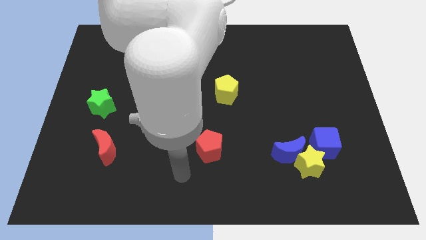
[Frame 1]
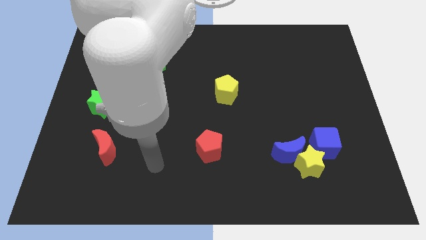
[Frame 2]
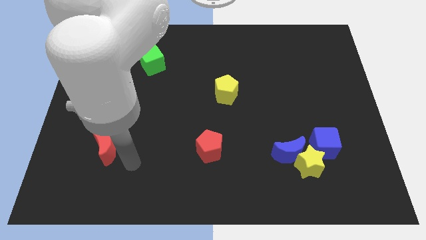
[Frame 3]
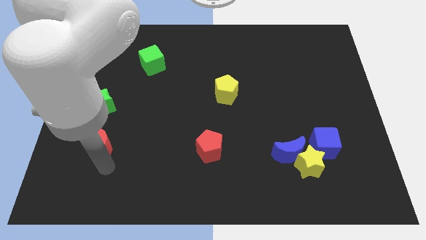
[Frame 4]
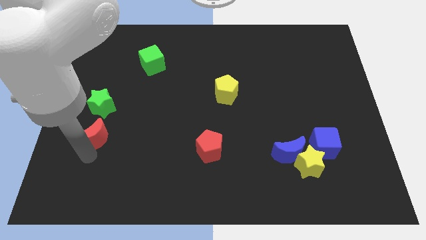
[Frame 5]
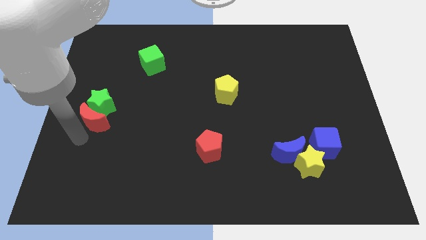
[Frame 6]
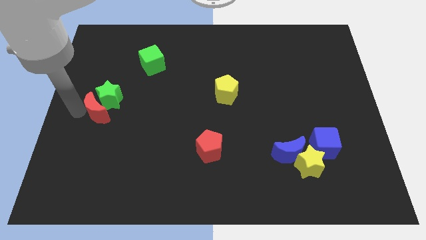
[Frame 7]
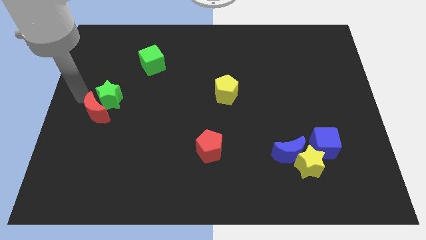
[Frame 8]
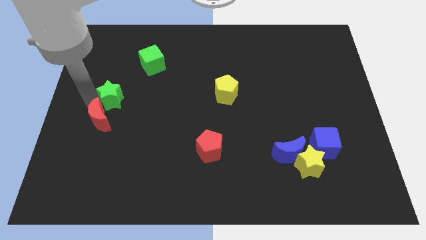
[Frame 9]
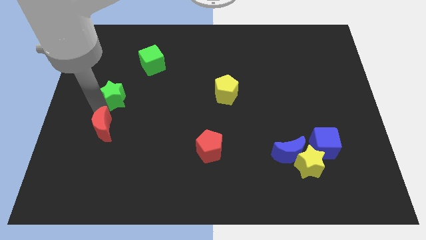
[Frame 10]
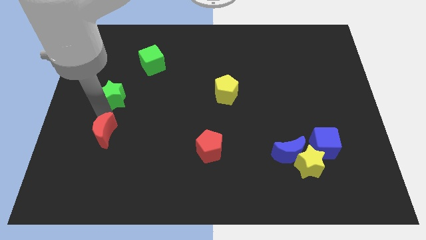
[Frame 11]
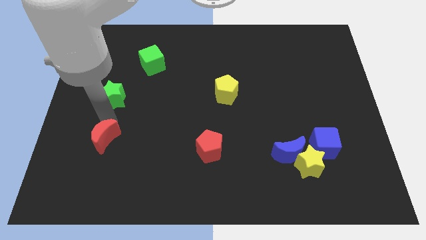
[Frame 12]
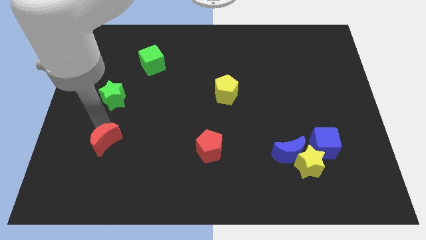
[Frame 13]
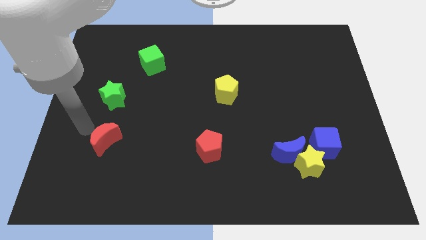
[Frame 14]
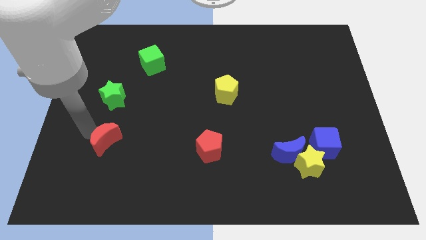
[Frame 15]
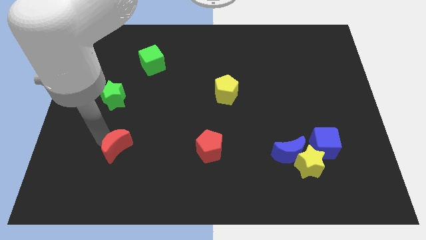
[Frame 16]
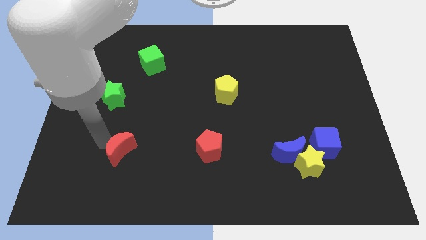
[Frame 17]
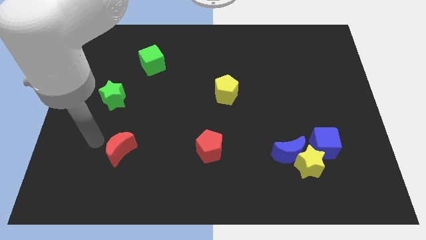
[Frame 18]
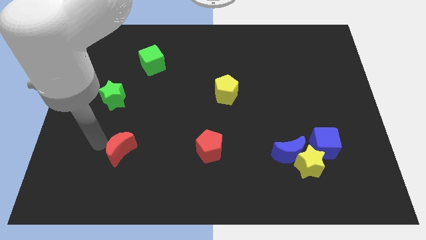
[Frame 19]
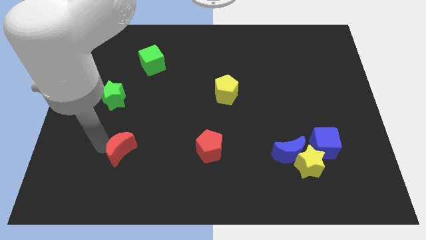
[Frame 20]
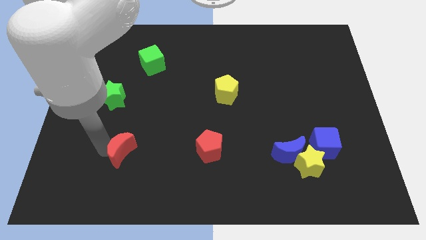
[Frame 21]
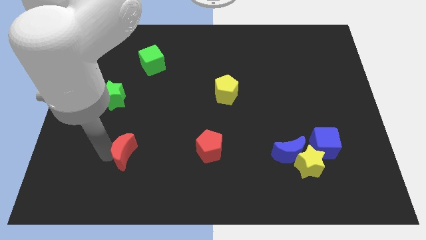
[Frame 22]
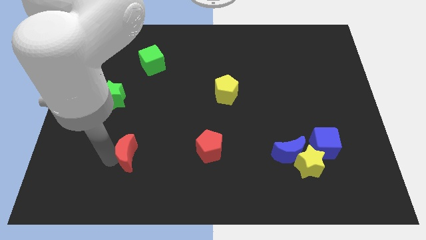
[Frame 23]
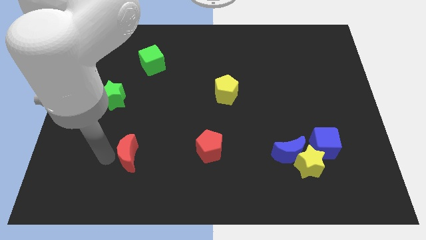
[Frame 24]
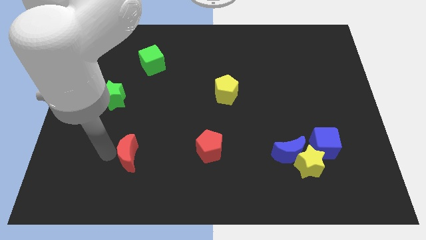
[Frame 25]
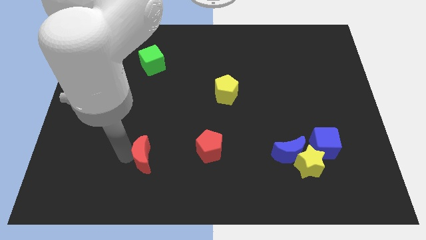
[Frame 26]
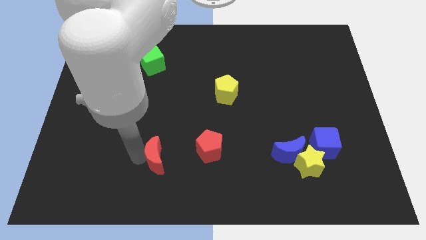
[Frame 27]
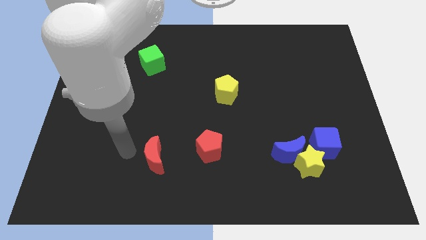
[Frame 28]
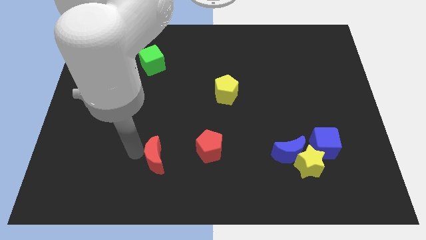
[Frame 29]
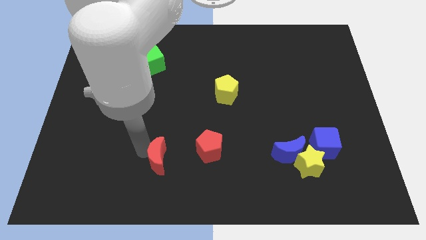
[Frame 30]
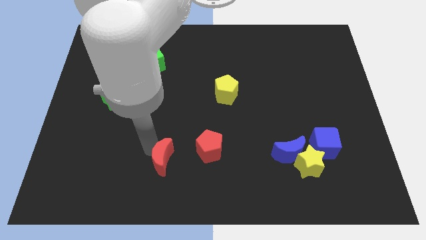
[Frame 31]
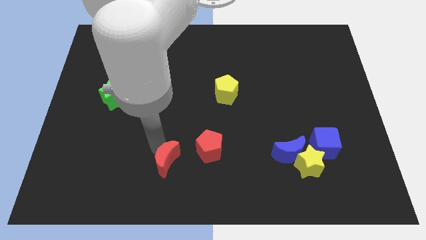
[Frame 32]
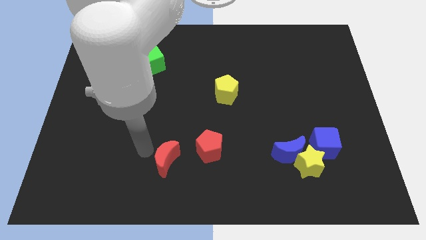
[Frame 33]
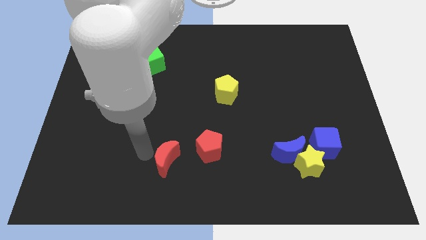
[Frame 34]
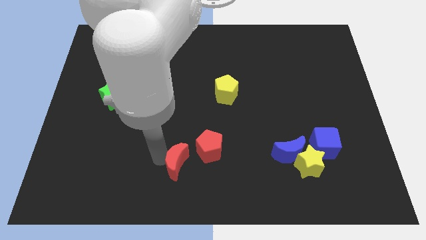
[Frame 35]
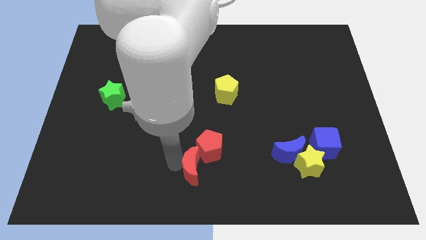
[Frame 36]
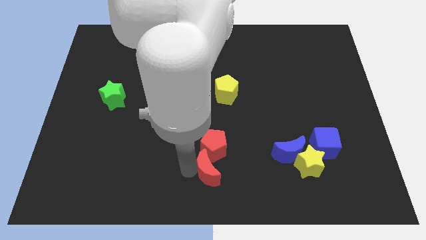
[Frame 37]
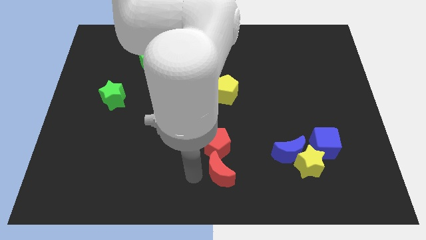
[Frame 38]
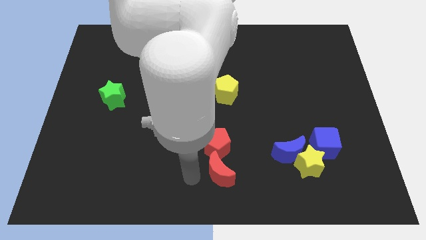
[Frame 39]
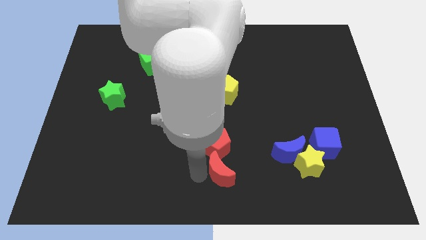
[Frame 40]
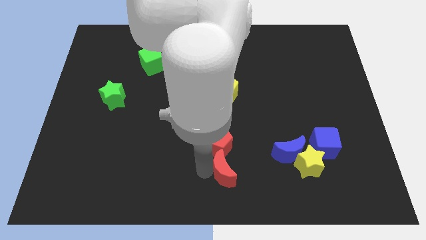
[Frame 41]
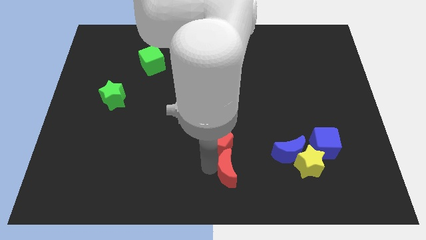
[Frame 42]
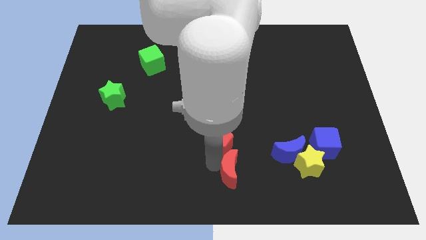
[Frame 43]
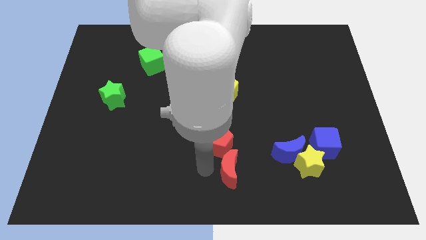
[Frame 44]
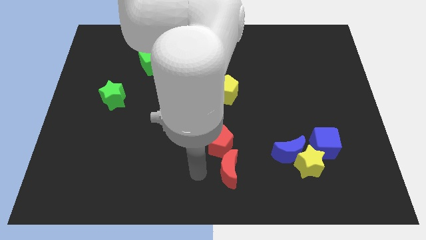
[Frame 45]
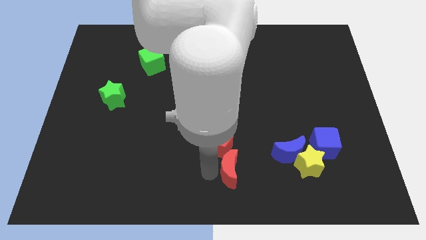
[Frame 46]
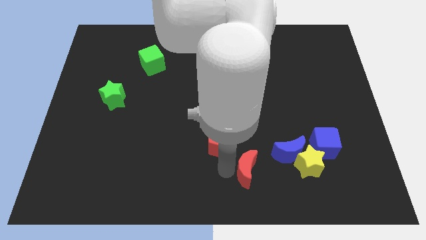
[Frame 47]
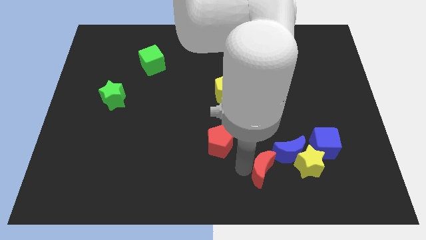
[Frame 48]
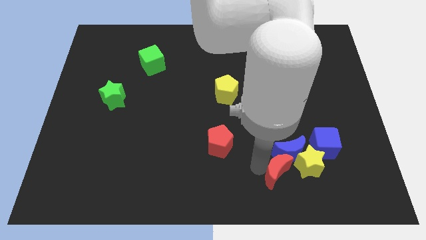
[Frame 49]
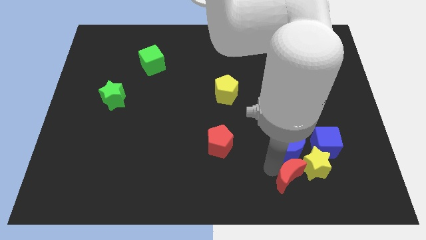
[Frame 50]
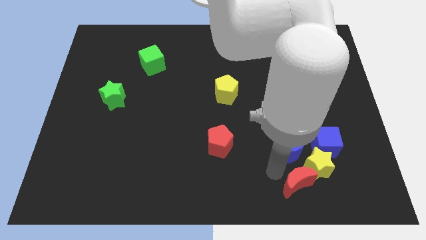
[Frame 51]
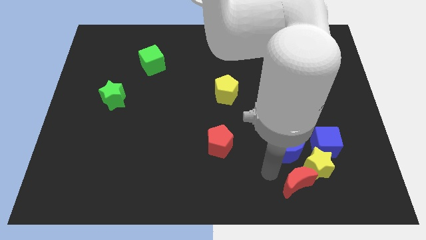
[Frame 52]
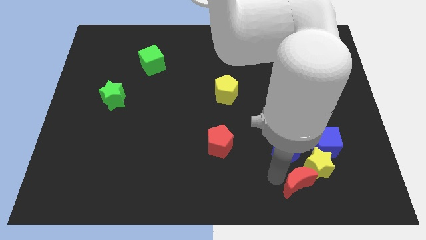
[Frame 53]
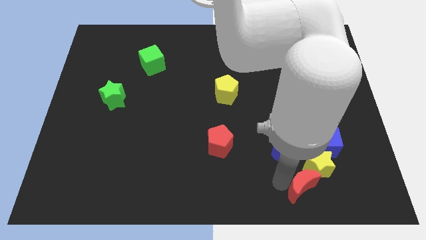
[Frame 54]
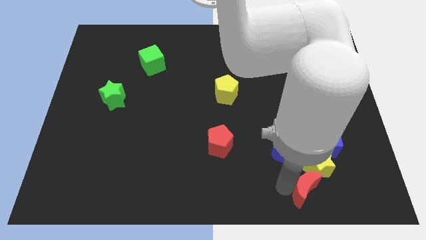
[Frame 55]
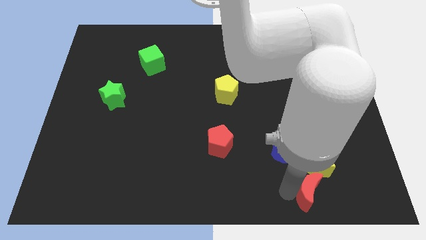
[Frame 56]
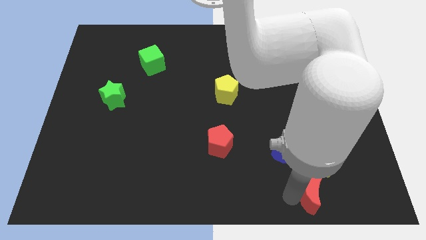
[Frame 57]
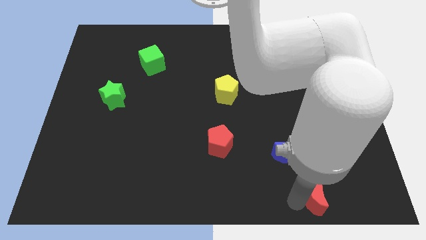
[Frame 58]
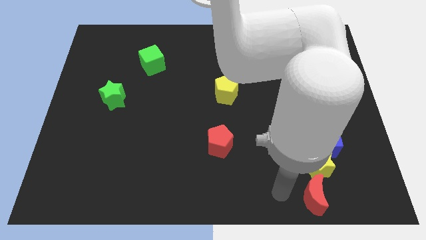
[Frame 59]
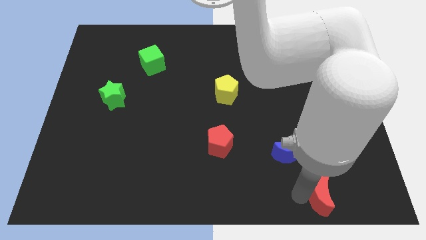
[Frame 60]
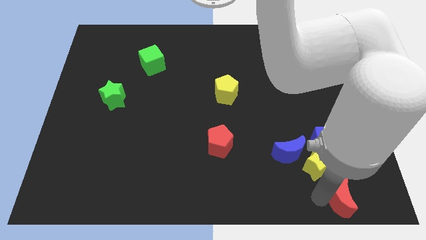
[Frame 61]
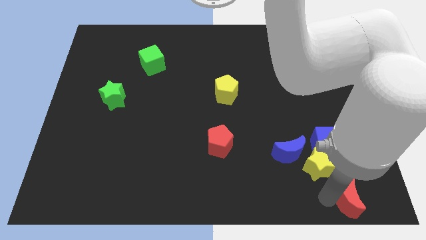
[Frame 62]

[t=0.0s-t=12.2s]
move the red moon to the bottom right

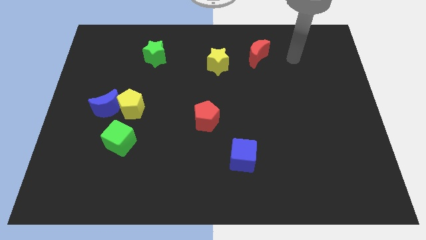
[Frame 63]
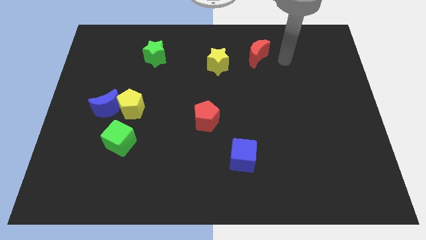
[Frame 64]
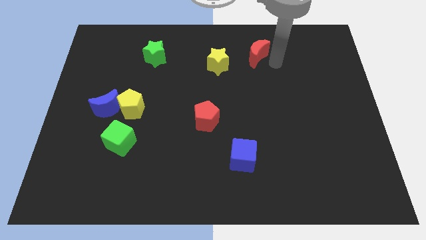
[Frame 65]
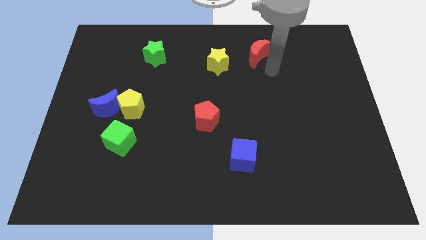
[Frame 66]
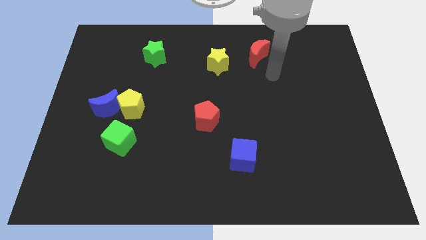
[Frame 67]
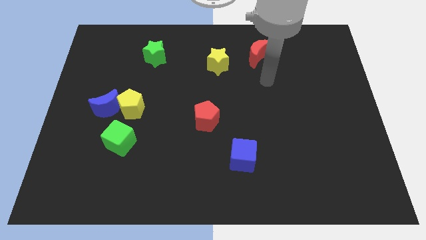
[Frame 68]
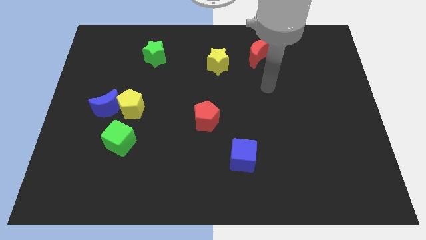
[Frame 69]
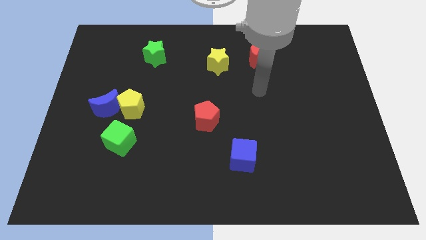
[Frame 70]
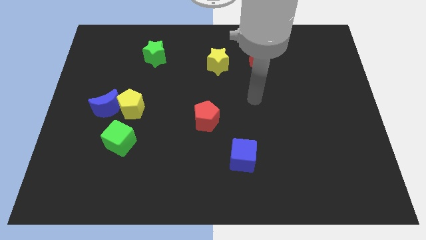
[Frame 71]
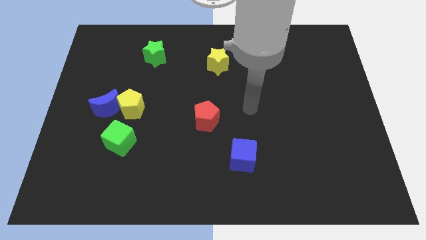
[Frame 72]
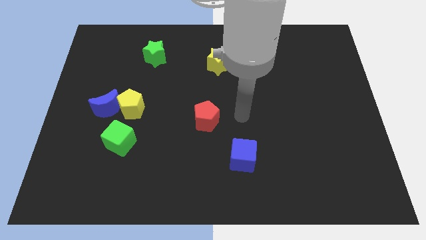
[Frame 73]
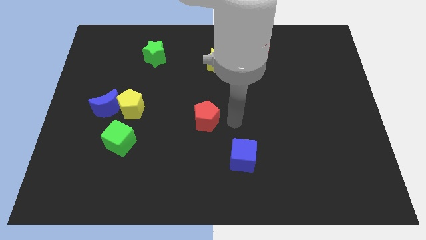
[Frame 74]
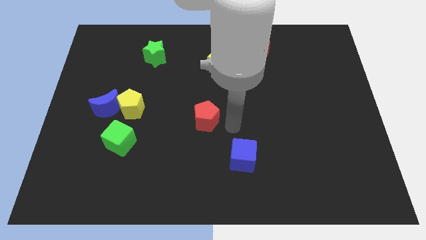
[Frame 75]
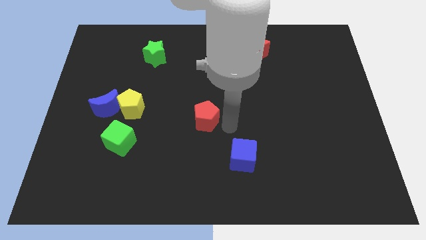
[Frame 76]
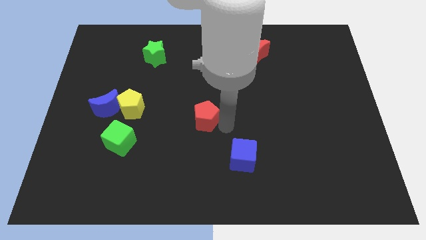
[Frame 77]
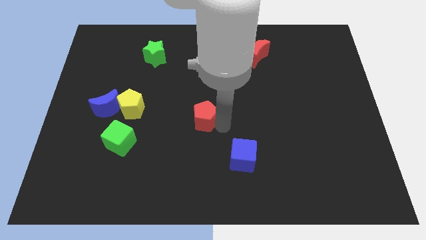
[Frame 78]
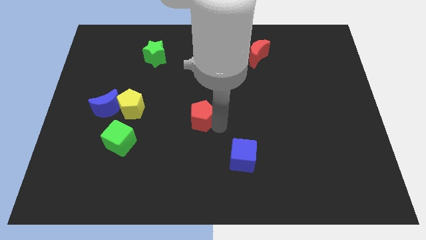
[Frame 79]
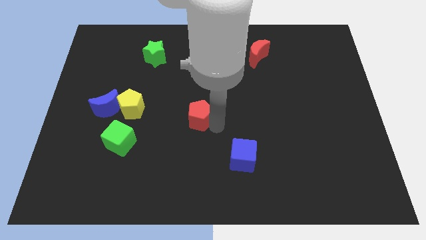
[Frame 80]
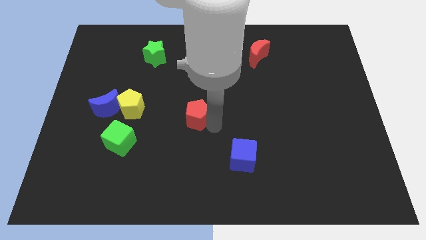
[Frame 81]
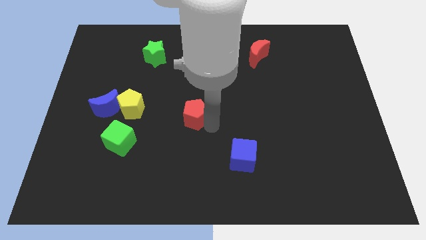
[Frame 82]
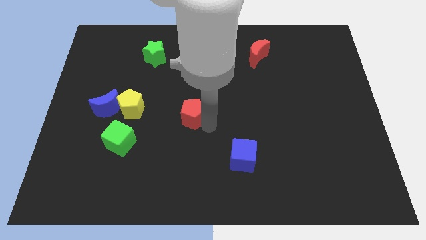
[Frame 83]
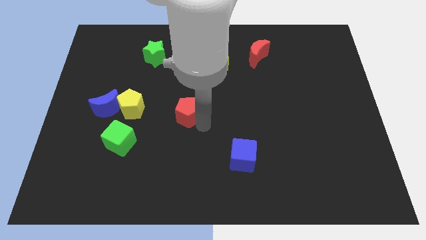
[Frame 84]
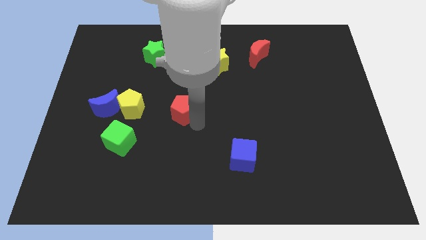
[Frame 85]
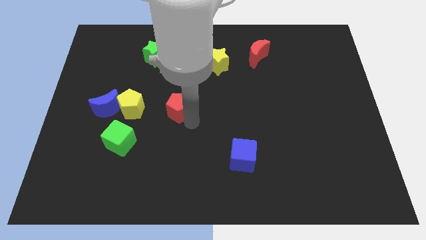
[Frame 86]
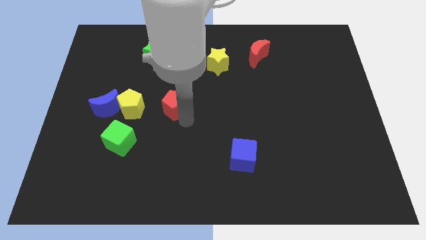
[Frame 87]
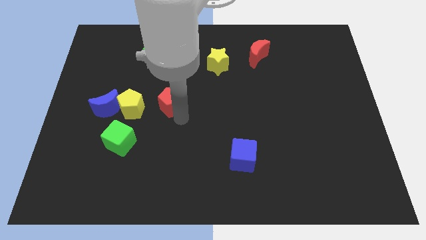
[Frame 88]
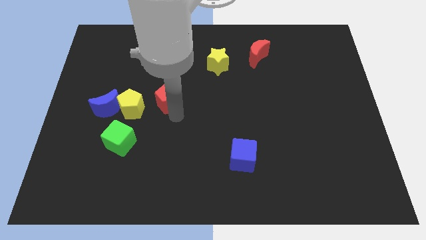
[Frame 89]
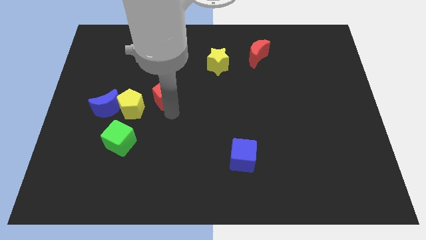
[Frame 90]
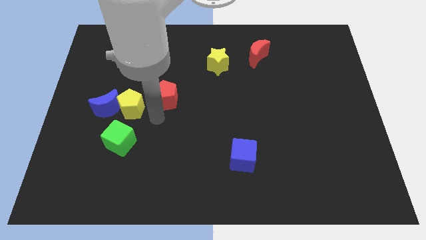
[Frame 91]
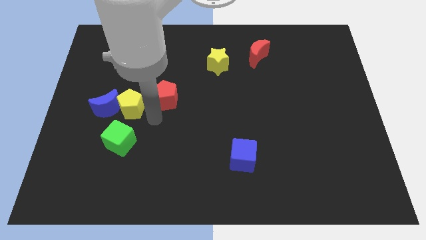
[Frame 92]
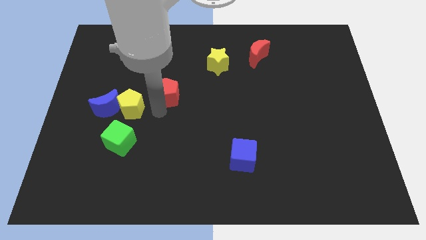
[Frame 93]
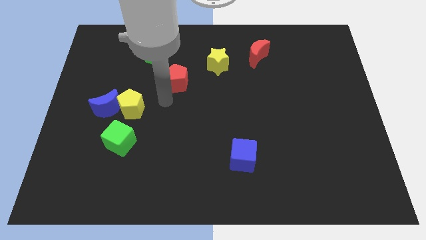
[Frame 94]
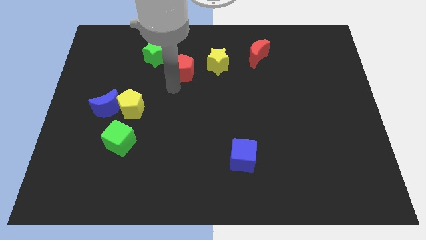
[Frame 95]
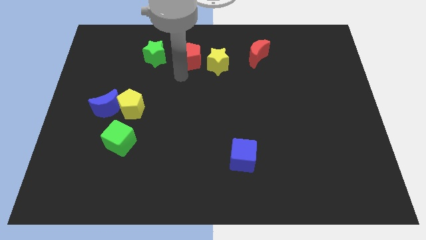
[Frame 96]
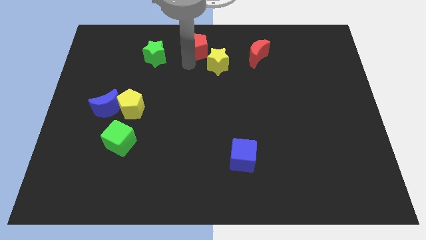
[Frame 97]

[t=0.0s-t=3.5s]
move the red pentagon to the top
